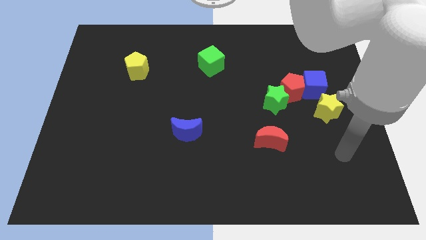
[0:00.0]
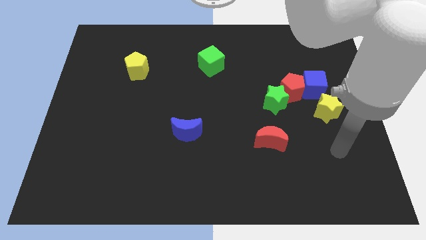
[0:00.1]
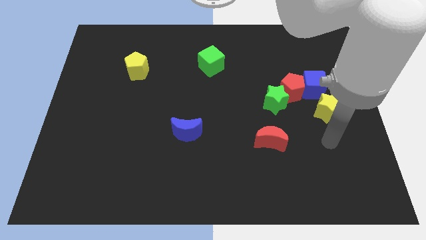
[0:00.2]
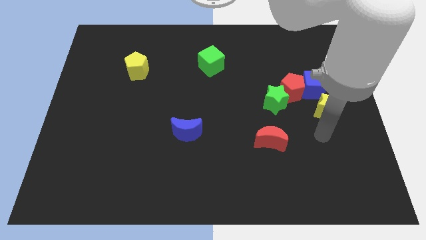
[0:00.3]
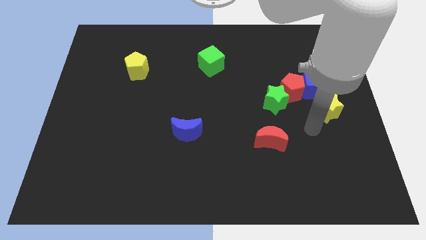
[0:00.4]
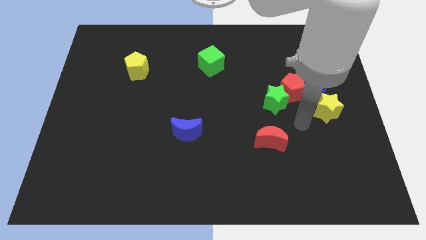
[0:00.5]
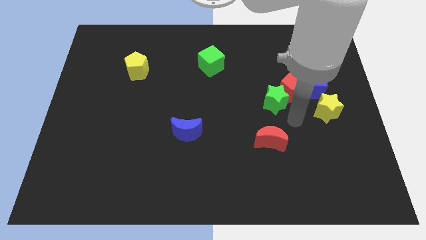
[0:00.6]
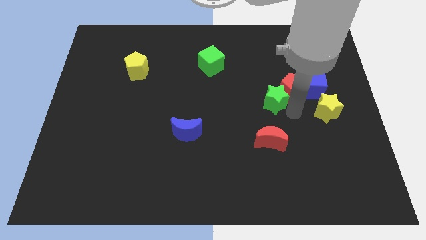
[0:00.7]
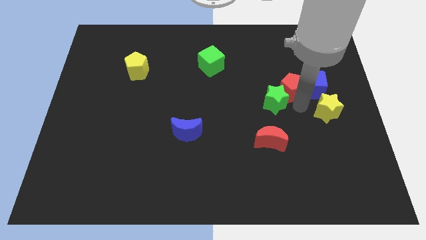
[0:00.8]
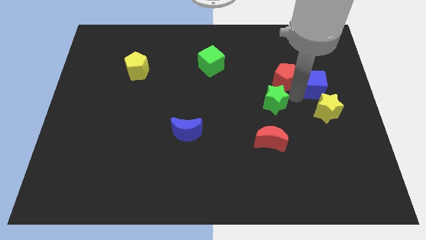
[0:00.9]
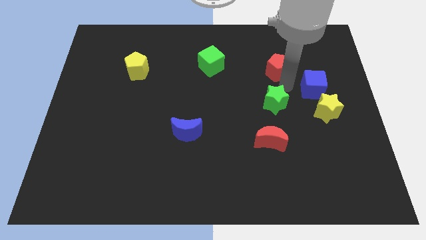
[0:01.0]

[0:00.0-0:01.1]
pull the green star apart from the red pentagon

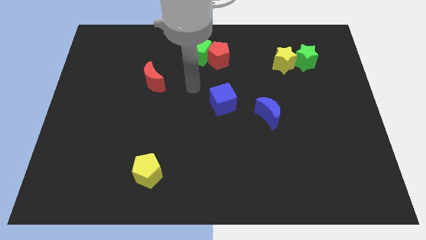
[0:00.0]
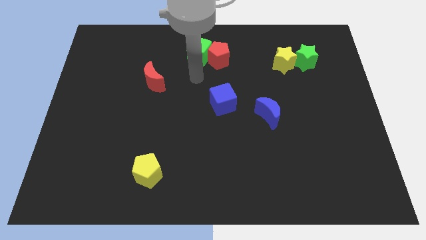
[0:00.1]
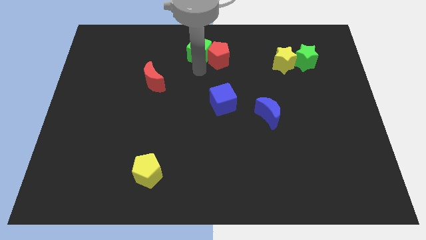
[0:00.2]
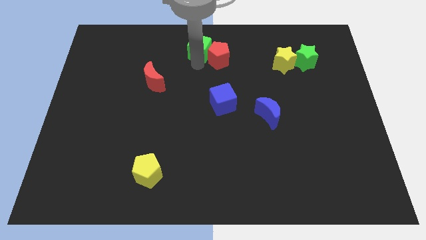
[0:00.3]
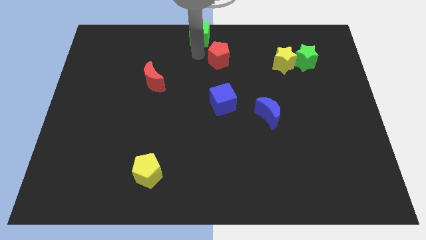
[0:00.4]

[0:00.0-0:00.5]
move the red pentagon away from the green cube

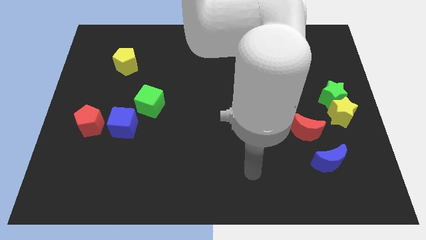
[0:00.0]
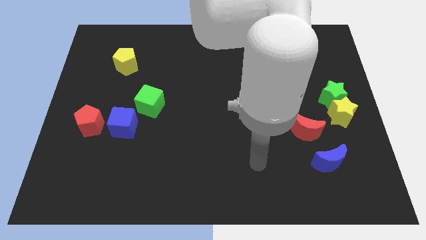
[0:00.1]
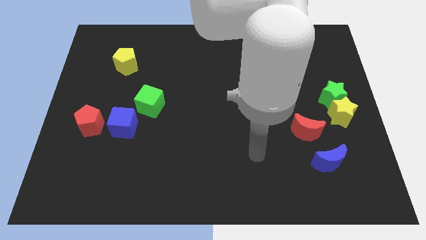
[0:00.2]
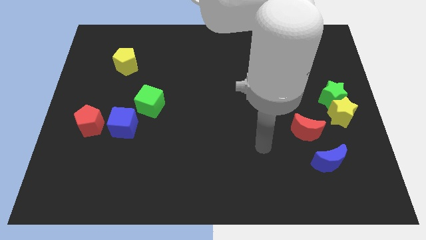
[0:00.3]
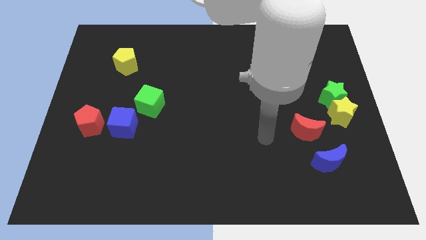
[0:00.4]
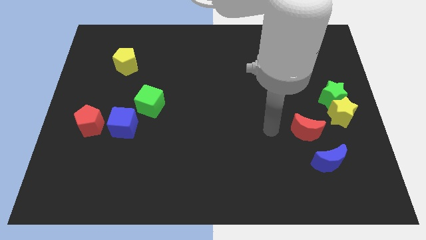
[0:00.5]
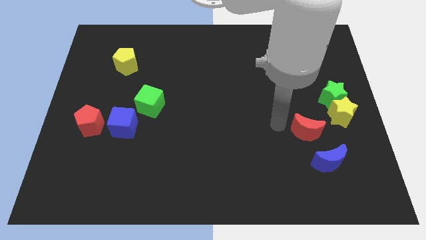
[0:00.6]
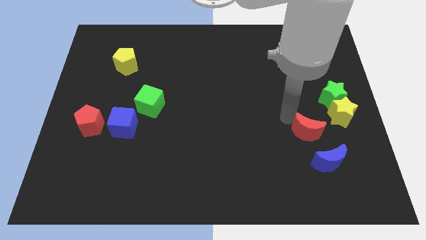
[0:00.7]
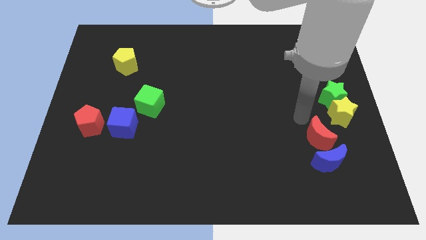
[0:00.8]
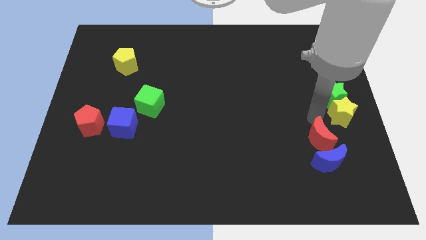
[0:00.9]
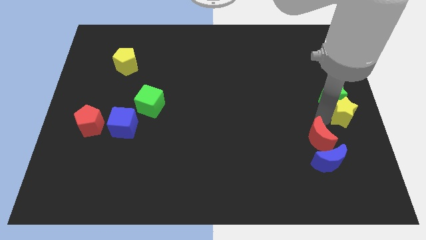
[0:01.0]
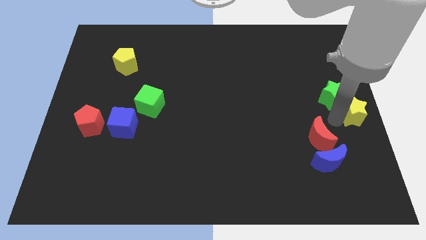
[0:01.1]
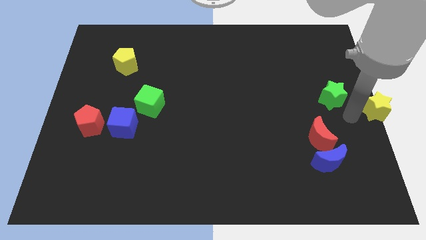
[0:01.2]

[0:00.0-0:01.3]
pull the green star apart from the yellow star

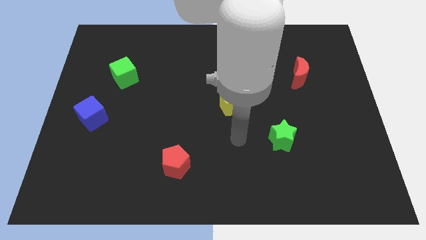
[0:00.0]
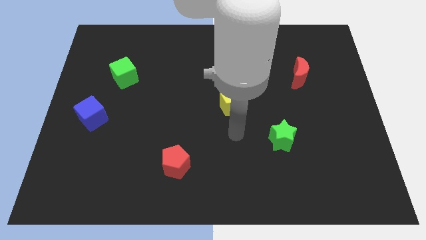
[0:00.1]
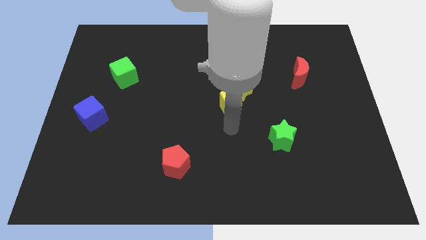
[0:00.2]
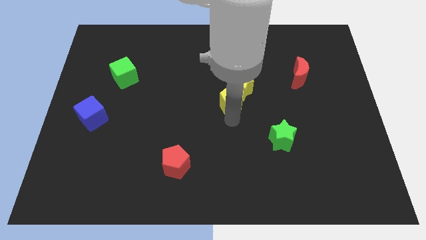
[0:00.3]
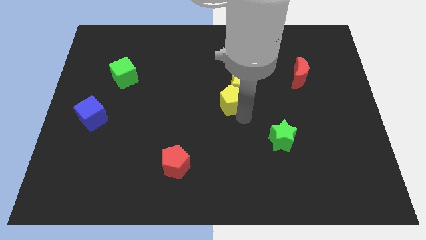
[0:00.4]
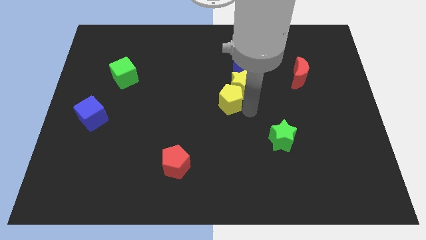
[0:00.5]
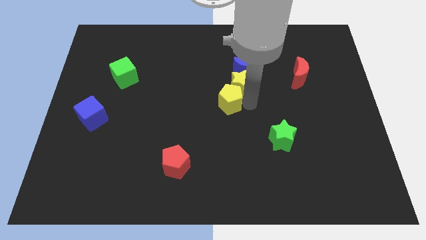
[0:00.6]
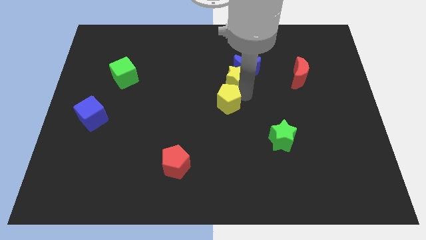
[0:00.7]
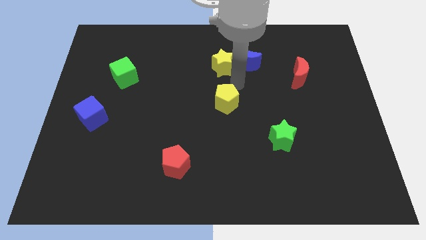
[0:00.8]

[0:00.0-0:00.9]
move the yellow pentagon away from the yellow star

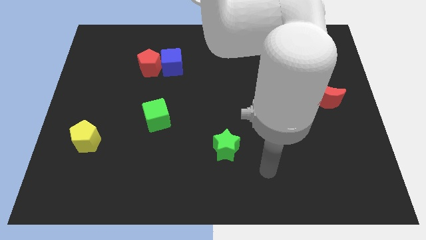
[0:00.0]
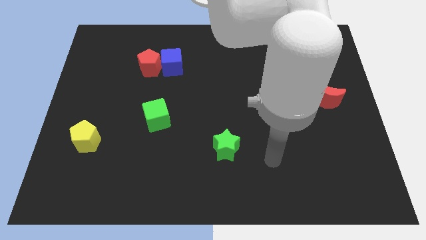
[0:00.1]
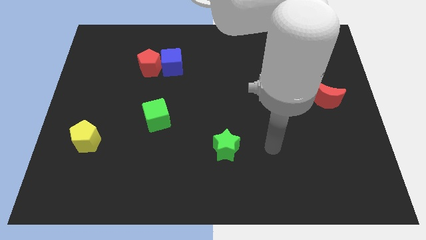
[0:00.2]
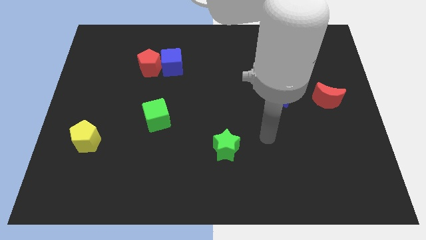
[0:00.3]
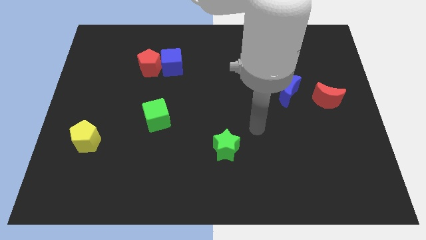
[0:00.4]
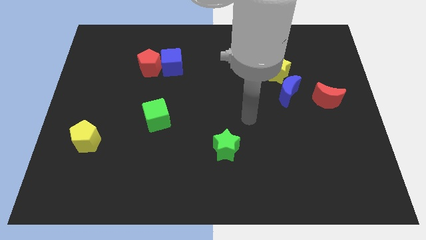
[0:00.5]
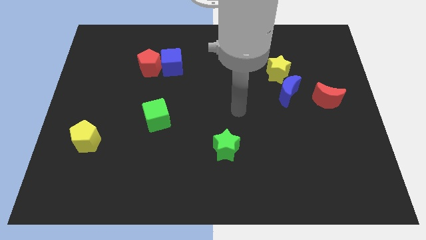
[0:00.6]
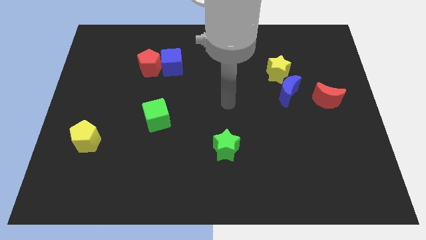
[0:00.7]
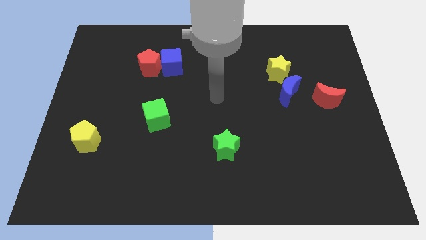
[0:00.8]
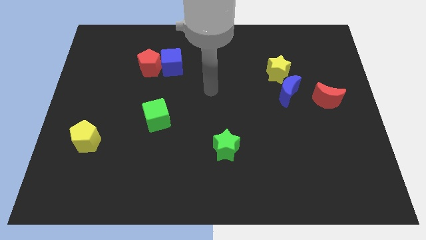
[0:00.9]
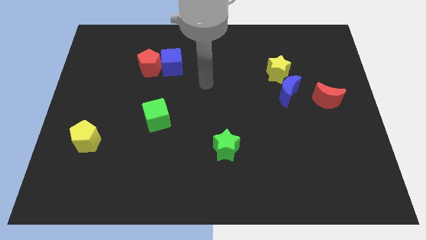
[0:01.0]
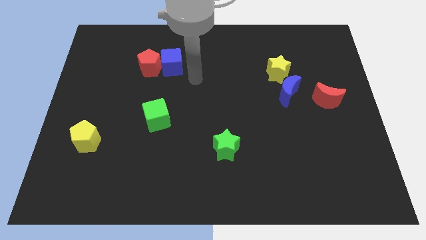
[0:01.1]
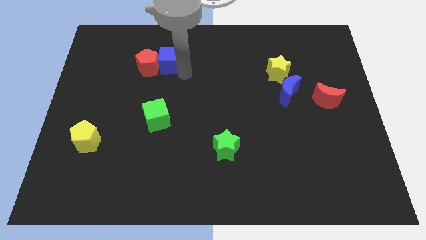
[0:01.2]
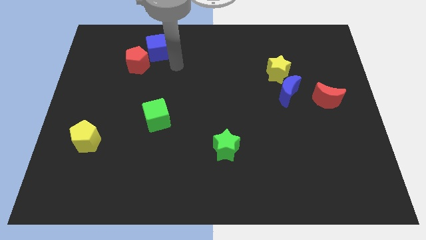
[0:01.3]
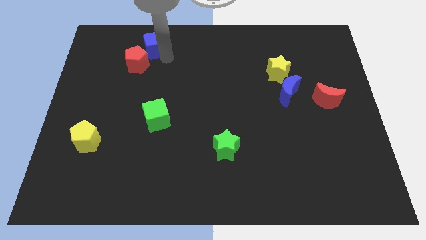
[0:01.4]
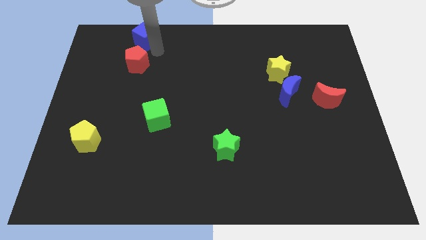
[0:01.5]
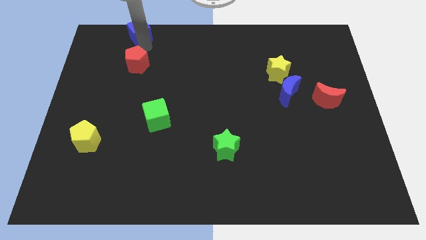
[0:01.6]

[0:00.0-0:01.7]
move the red pentagon away from the blue cube

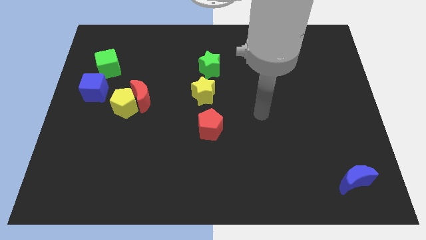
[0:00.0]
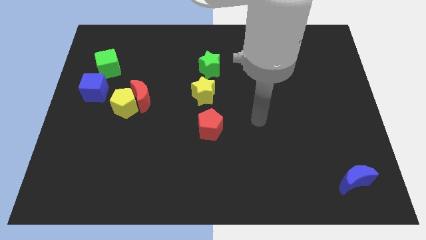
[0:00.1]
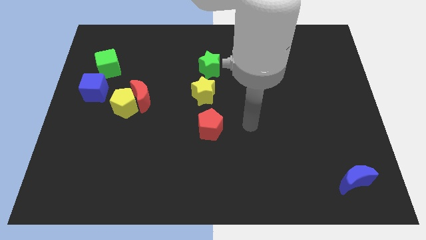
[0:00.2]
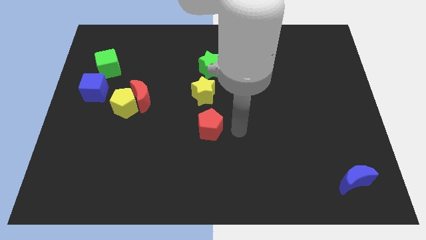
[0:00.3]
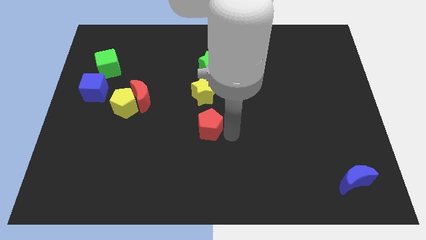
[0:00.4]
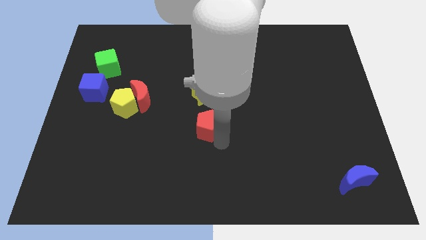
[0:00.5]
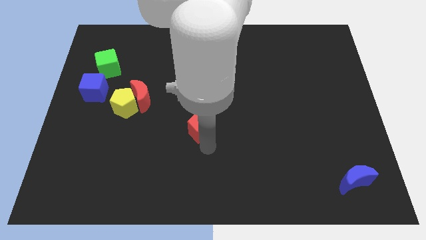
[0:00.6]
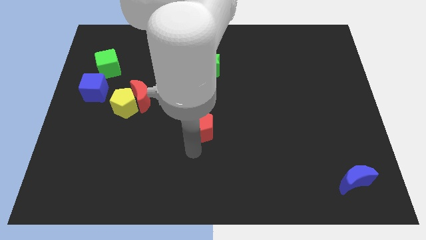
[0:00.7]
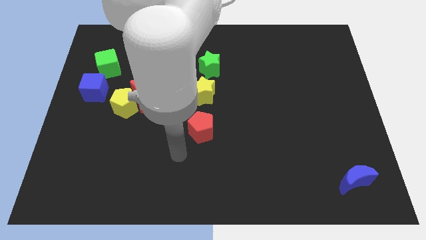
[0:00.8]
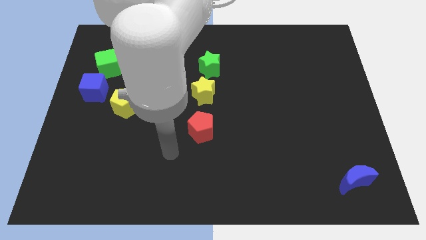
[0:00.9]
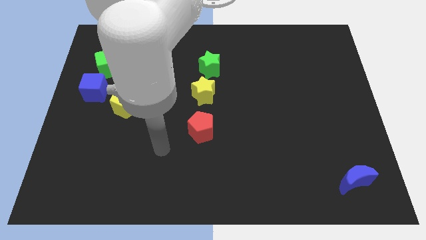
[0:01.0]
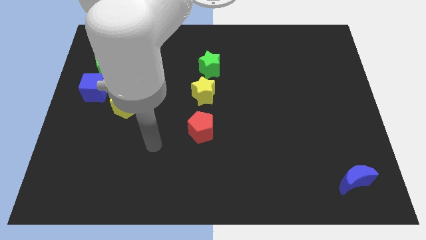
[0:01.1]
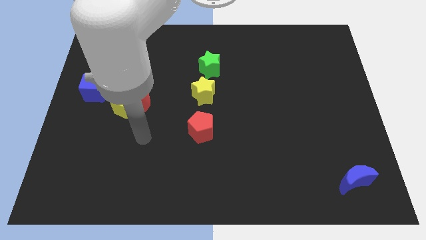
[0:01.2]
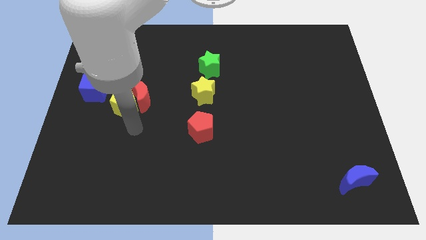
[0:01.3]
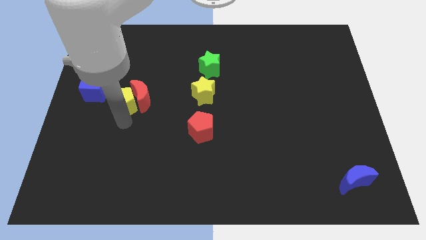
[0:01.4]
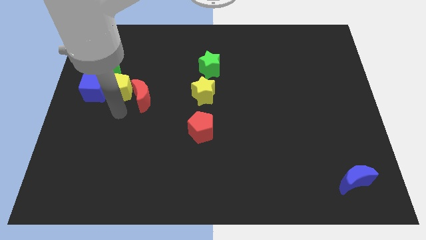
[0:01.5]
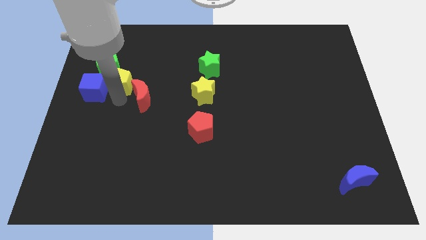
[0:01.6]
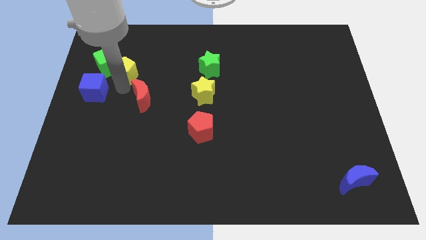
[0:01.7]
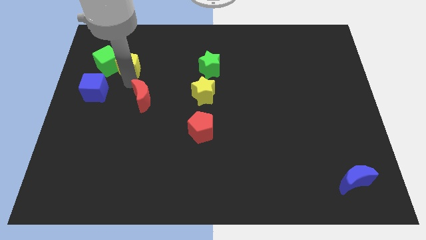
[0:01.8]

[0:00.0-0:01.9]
pull the red moon apart from the yellow pentagon

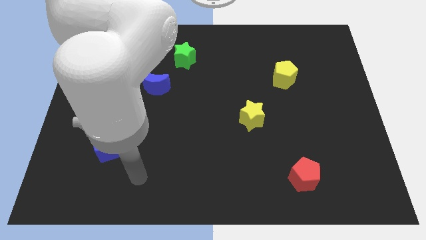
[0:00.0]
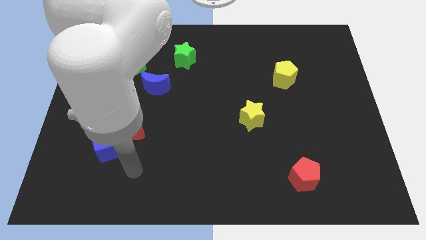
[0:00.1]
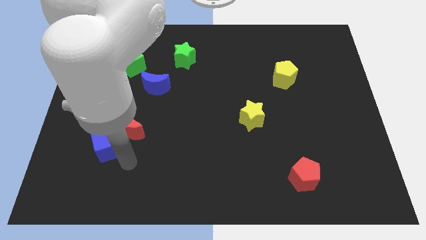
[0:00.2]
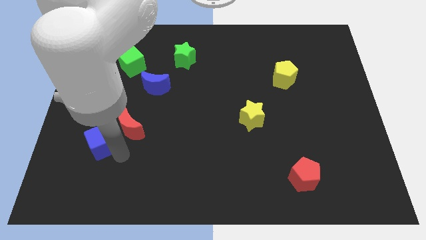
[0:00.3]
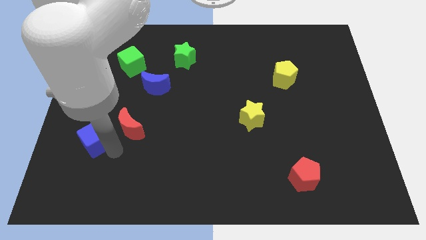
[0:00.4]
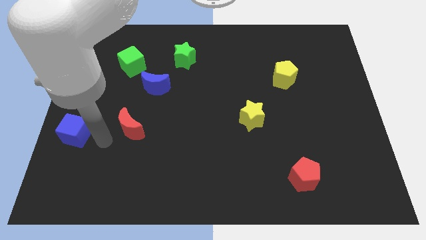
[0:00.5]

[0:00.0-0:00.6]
pull the red moon apart from the blue cube

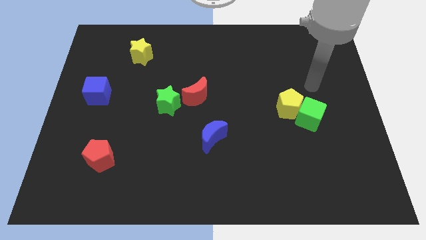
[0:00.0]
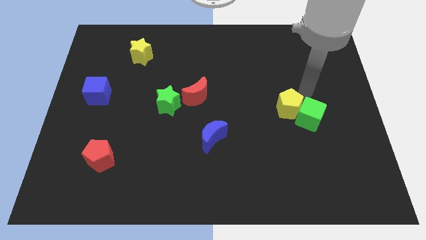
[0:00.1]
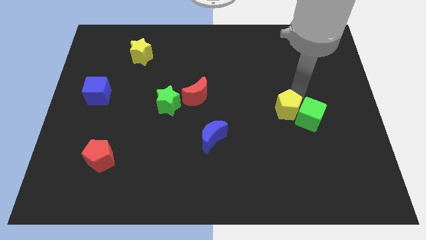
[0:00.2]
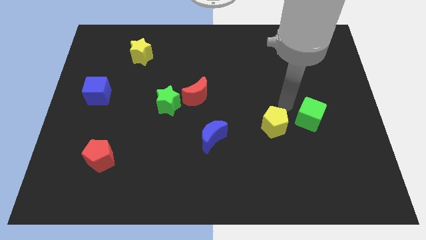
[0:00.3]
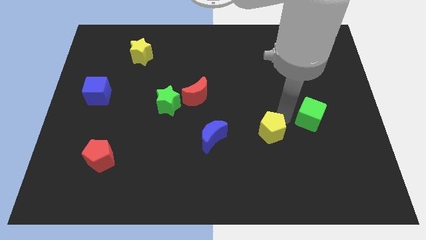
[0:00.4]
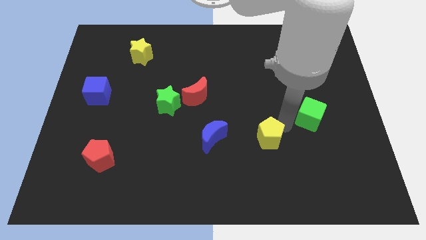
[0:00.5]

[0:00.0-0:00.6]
pull the green cube apart from the yellow pentagon

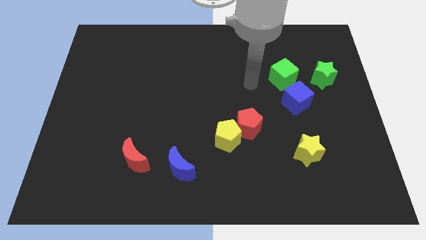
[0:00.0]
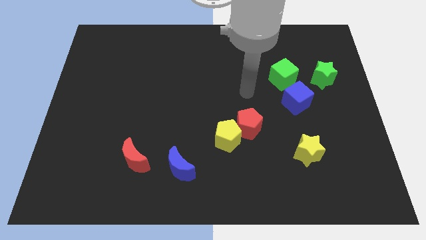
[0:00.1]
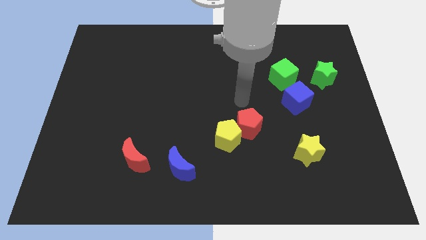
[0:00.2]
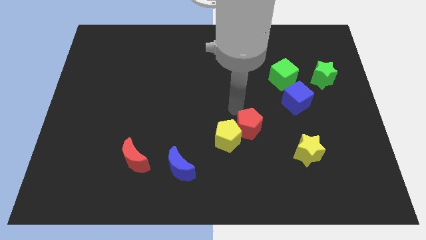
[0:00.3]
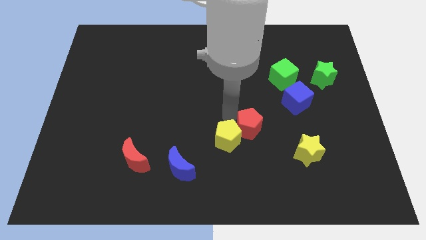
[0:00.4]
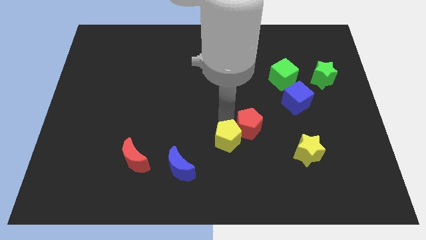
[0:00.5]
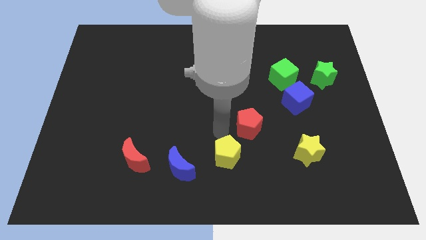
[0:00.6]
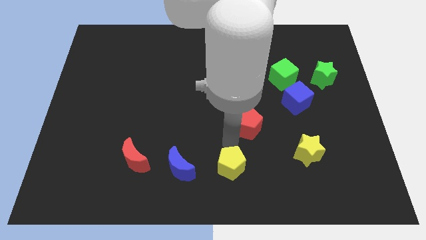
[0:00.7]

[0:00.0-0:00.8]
move the red pentagon away from the yellow pentagon

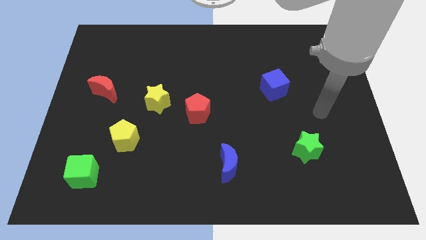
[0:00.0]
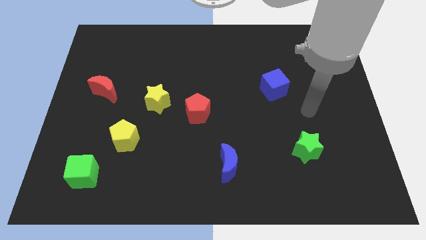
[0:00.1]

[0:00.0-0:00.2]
separate the red pentagon from the yellow star
